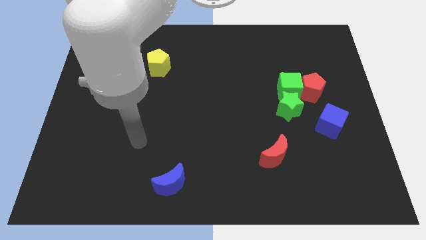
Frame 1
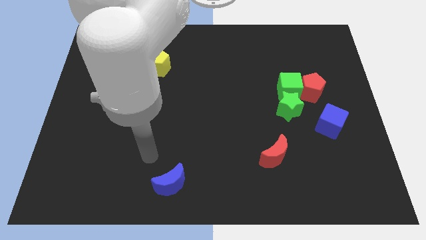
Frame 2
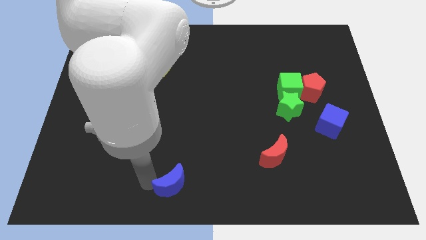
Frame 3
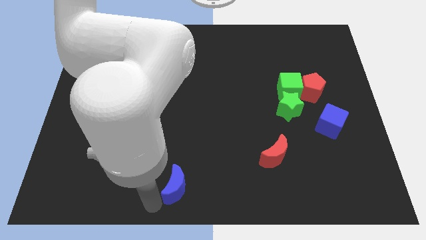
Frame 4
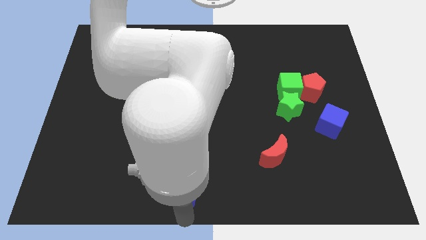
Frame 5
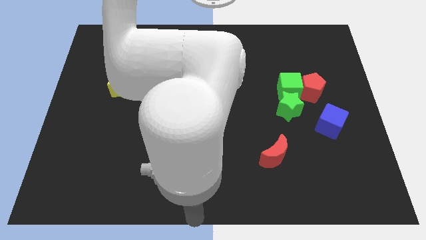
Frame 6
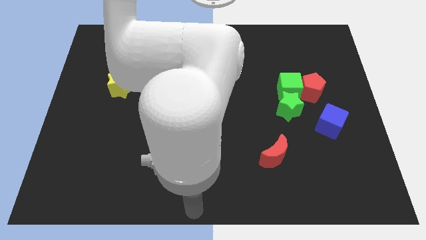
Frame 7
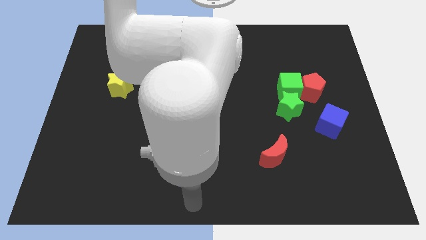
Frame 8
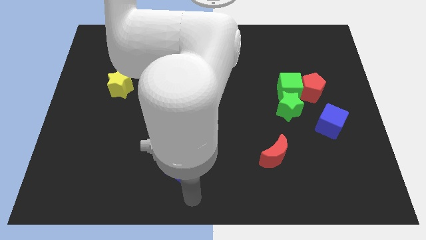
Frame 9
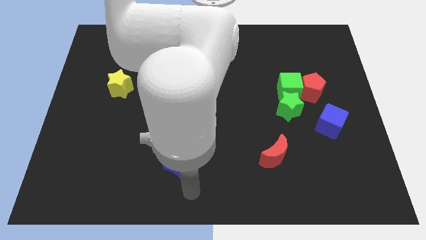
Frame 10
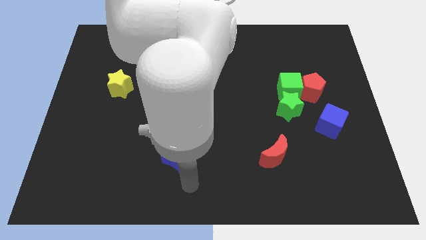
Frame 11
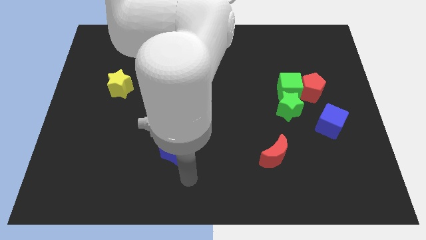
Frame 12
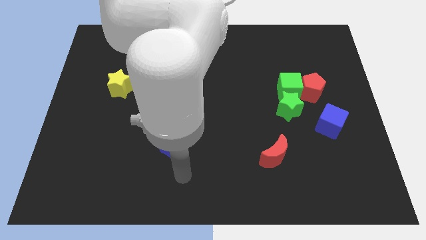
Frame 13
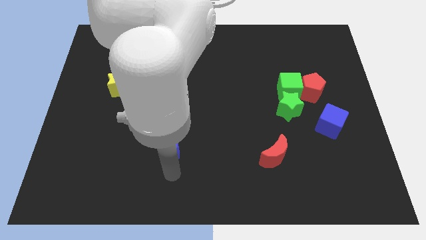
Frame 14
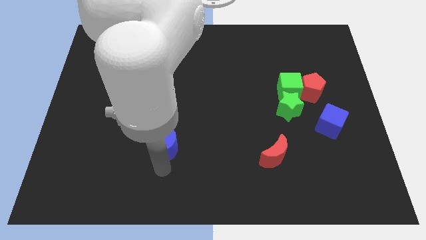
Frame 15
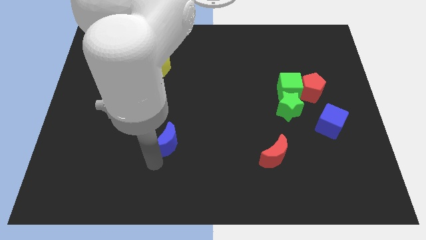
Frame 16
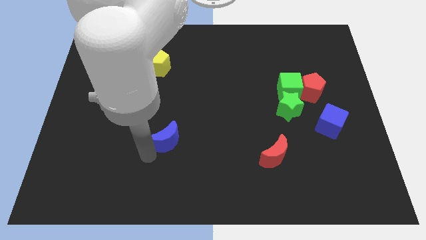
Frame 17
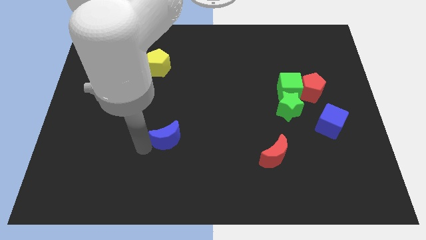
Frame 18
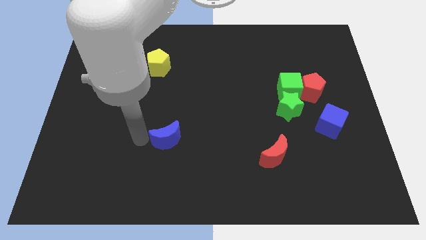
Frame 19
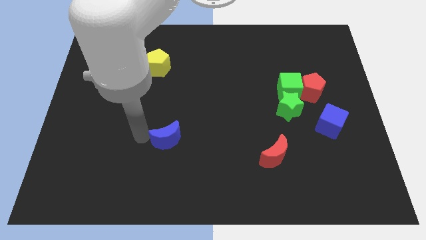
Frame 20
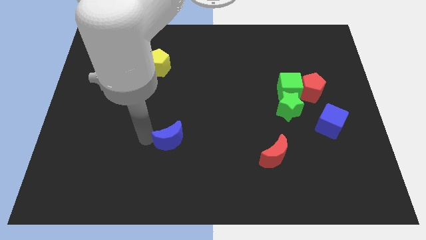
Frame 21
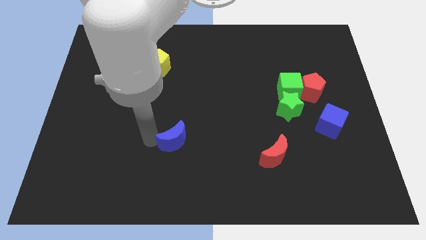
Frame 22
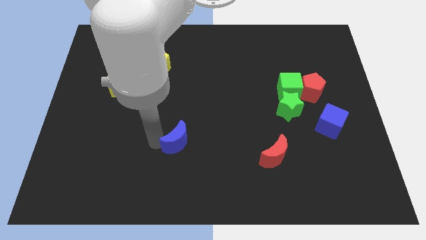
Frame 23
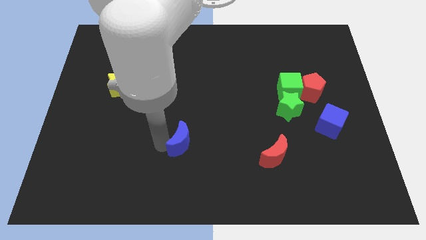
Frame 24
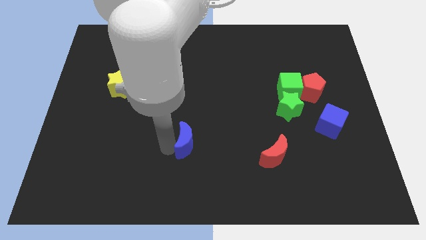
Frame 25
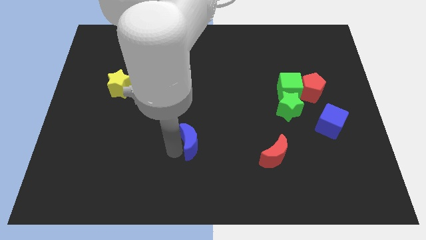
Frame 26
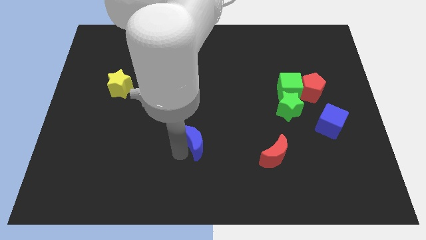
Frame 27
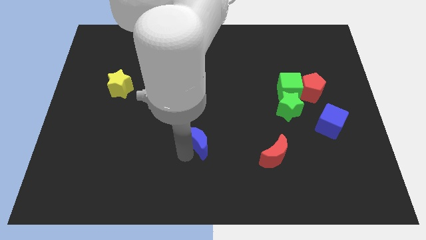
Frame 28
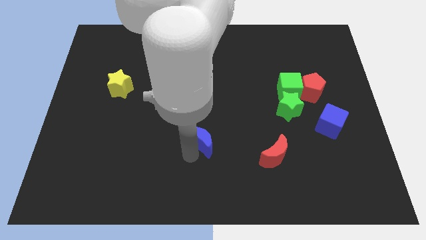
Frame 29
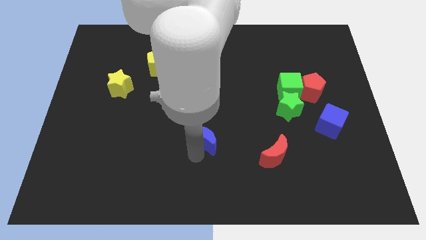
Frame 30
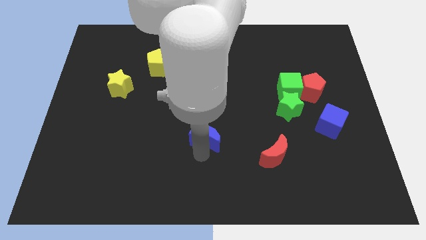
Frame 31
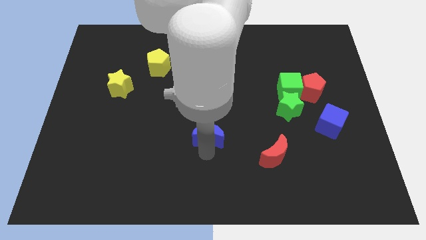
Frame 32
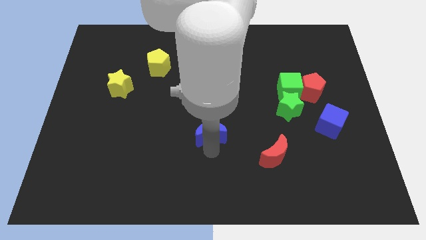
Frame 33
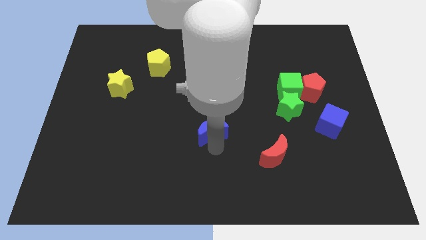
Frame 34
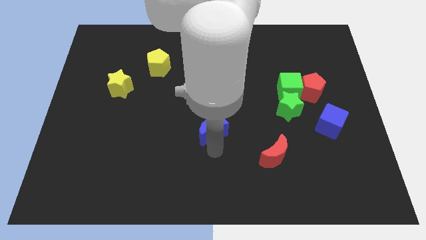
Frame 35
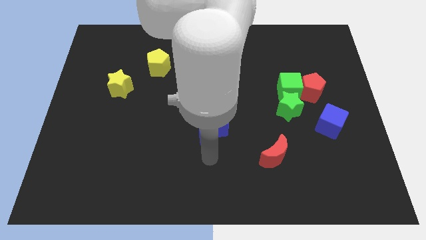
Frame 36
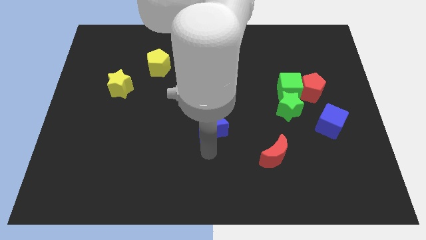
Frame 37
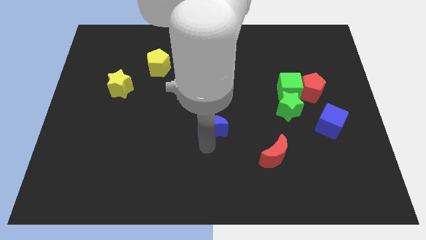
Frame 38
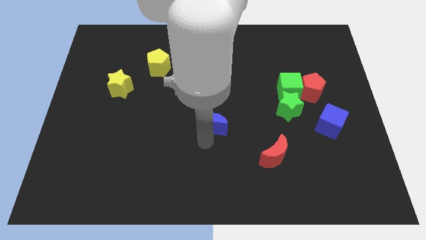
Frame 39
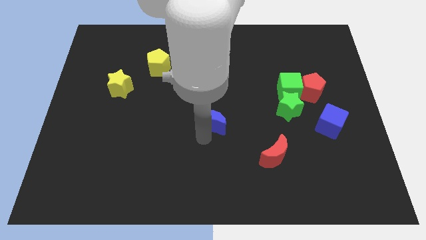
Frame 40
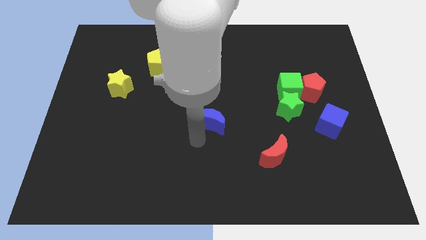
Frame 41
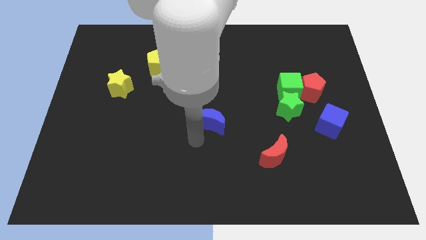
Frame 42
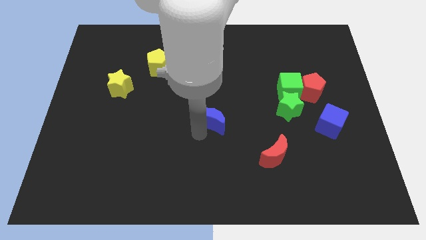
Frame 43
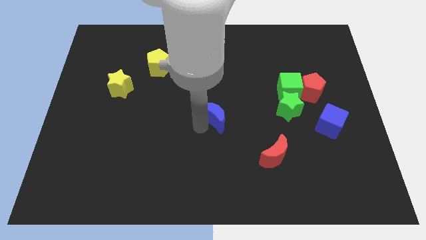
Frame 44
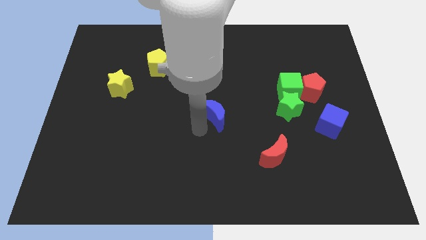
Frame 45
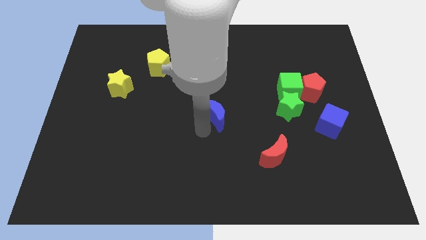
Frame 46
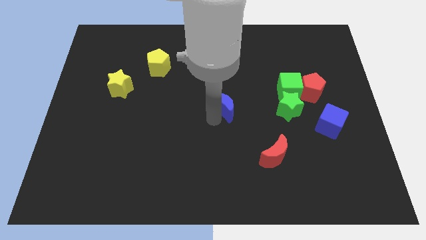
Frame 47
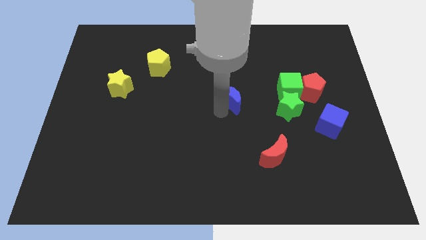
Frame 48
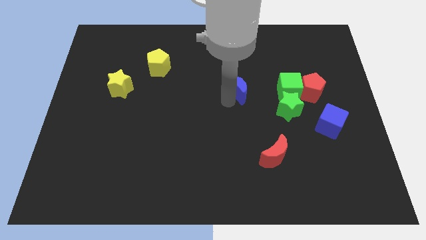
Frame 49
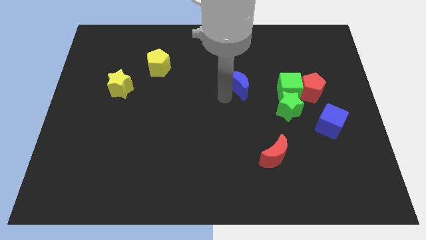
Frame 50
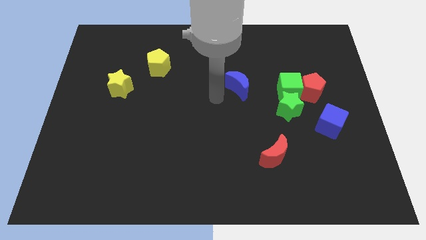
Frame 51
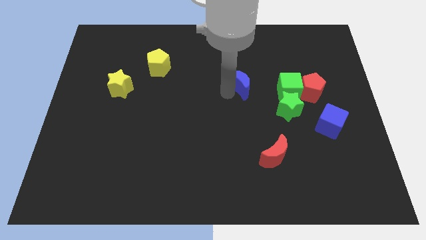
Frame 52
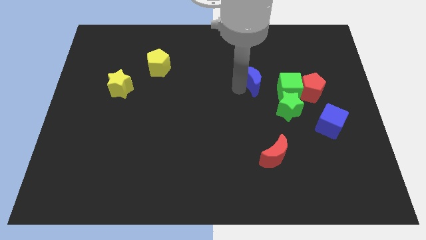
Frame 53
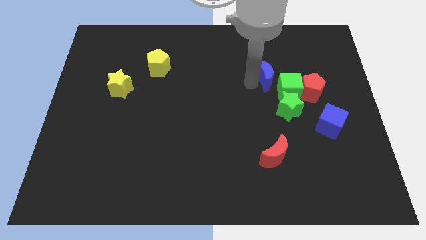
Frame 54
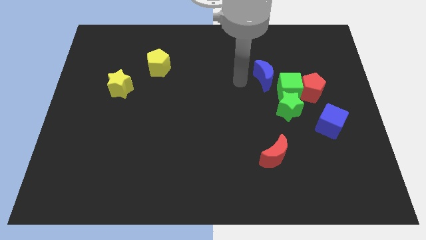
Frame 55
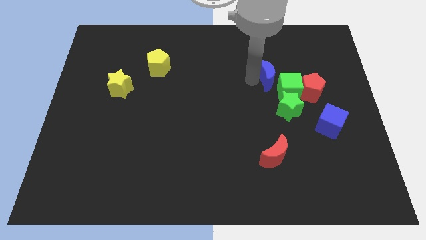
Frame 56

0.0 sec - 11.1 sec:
move the blue moon to the top left of the red pentagon

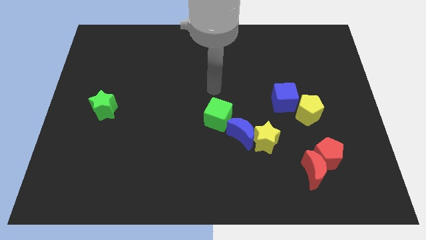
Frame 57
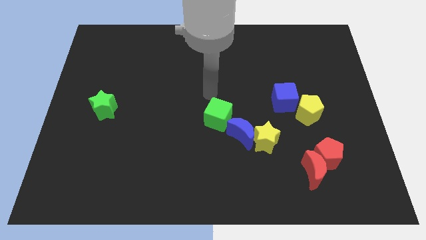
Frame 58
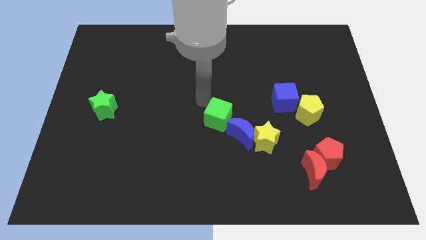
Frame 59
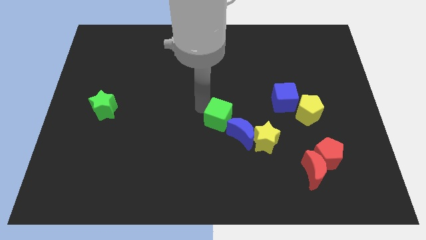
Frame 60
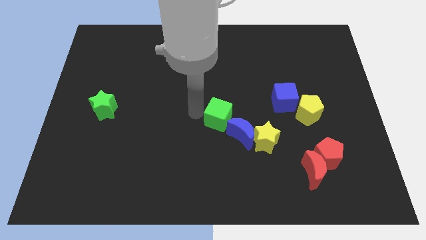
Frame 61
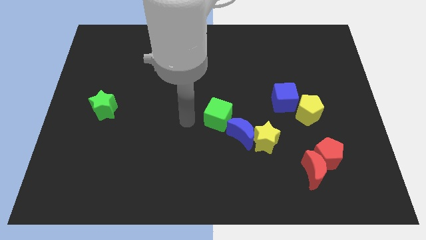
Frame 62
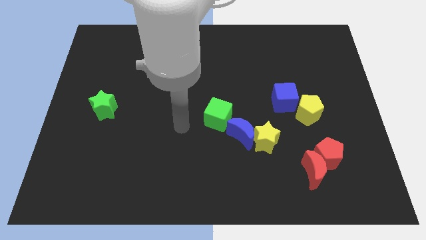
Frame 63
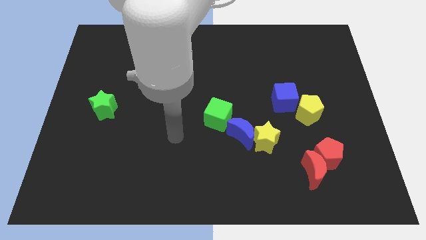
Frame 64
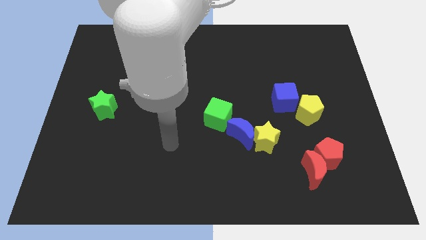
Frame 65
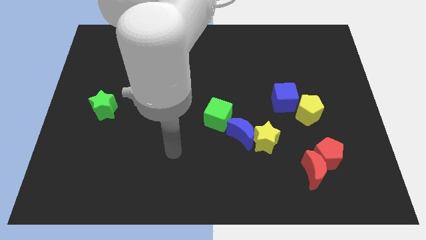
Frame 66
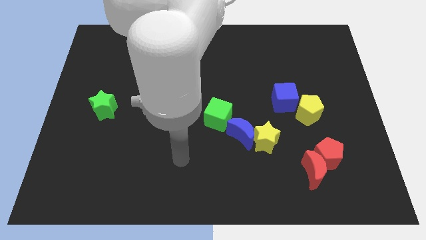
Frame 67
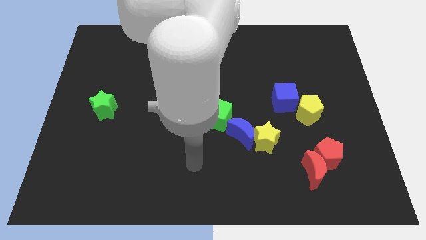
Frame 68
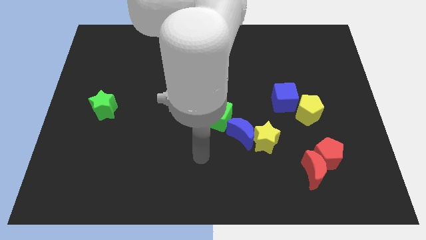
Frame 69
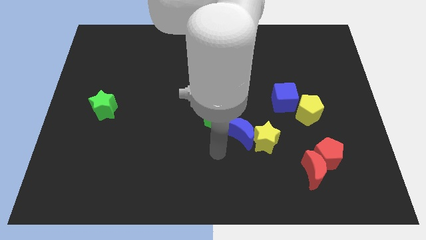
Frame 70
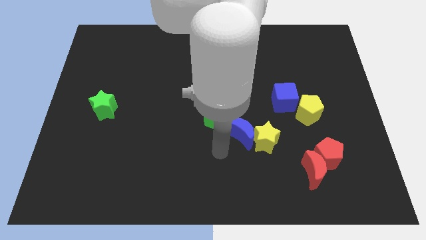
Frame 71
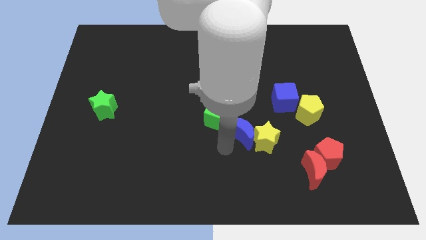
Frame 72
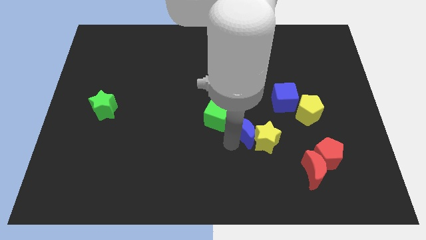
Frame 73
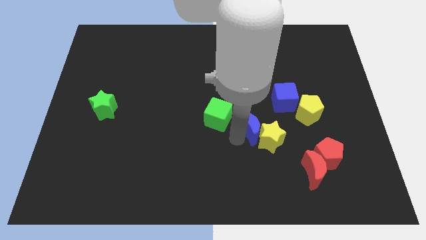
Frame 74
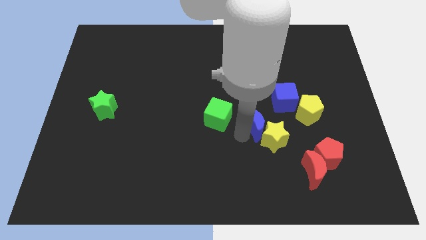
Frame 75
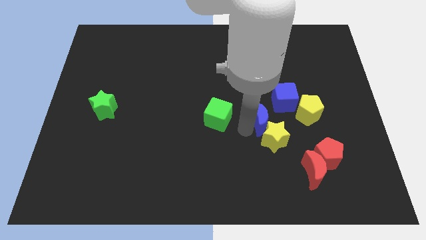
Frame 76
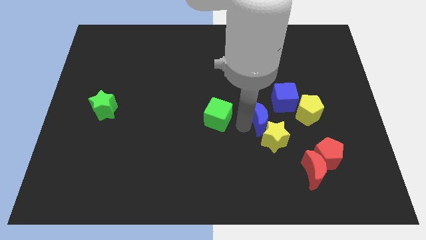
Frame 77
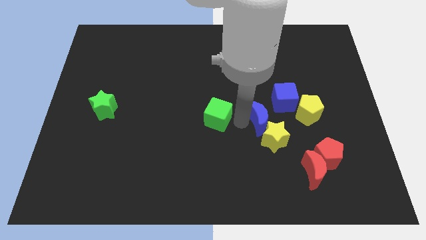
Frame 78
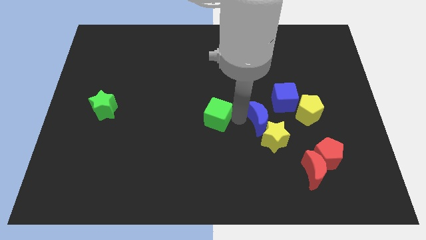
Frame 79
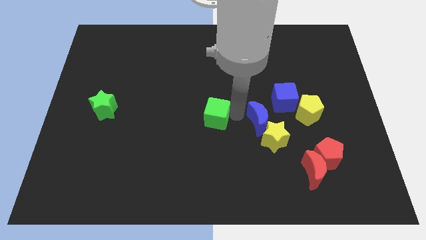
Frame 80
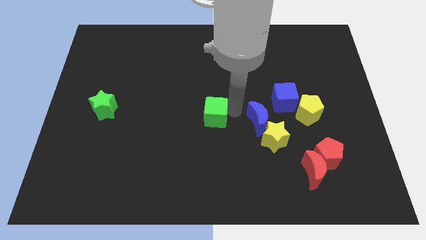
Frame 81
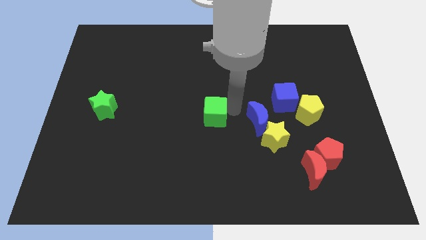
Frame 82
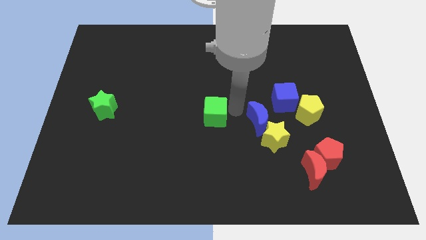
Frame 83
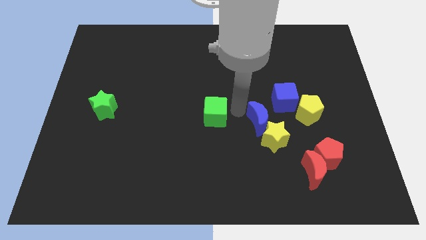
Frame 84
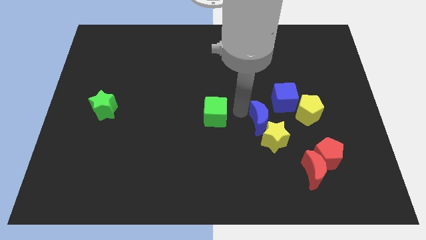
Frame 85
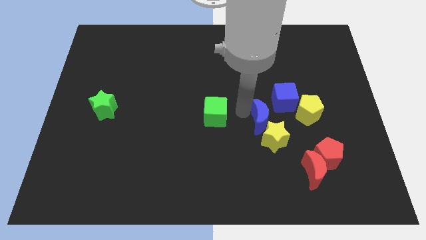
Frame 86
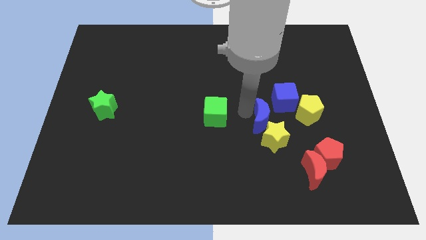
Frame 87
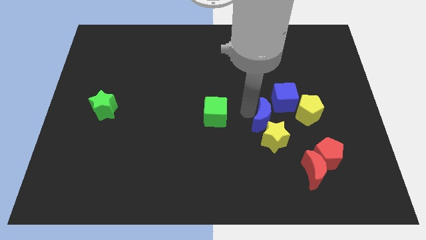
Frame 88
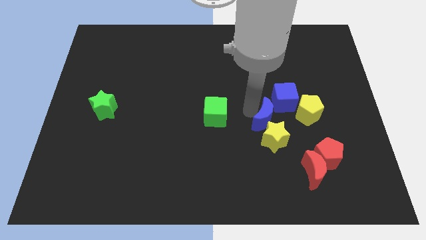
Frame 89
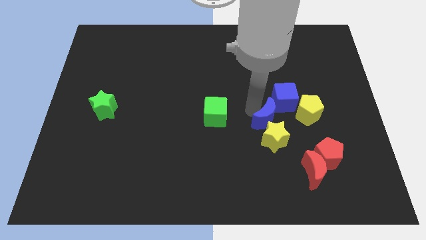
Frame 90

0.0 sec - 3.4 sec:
put the blue moon to the bottom side of the blue cube
